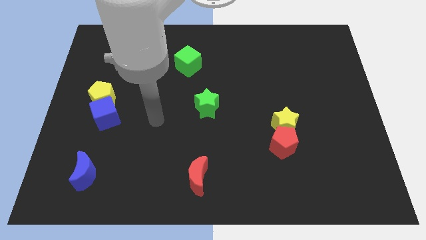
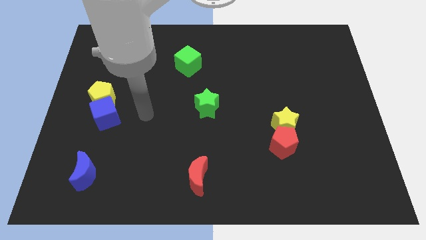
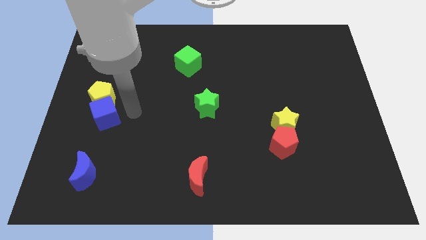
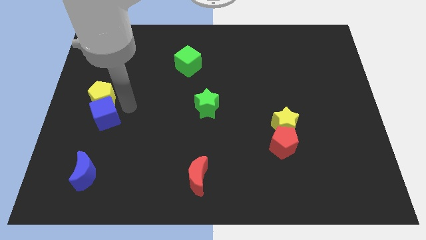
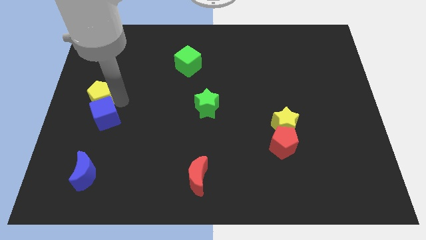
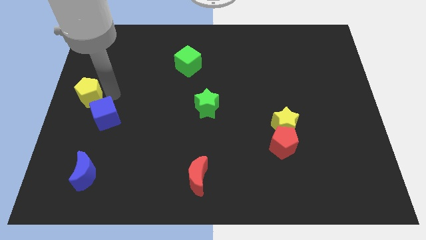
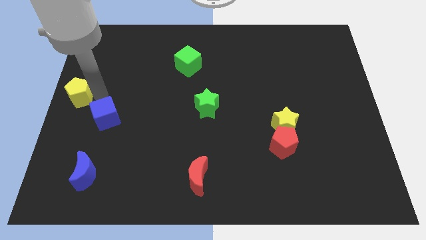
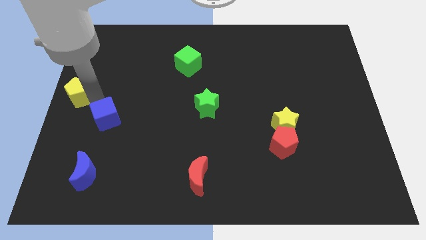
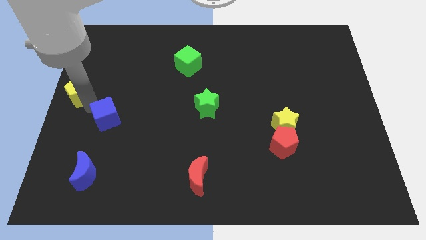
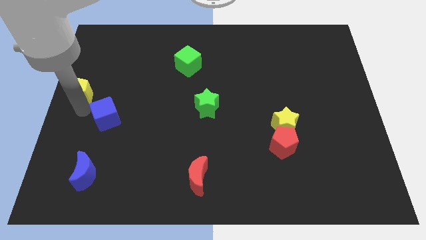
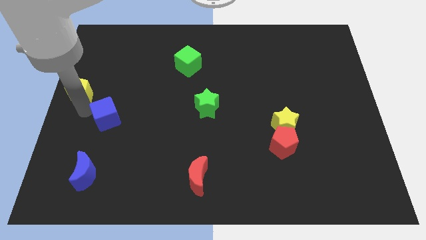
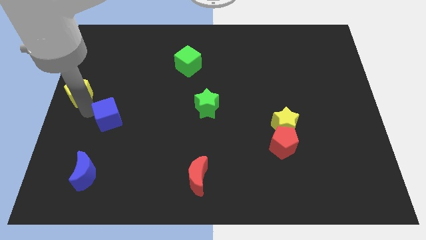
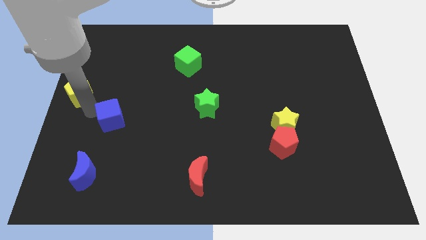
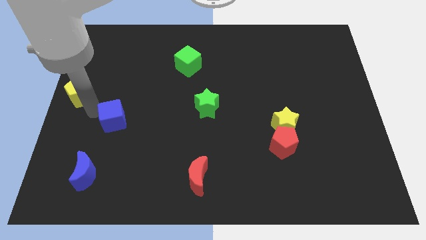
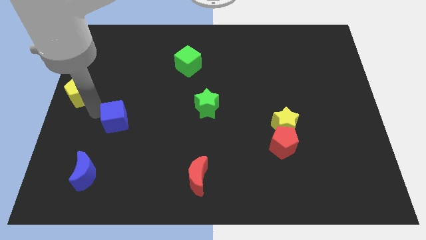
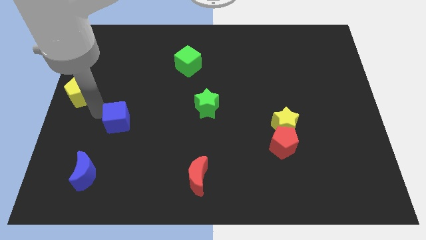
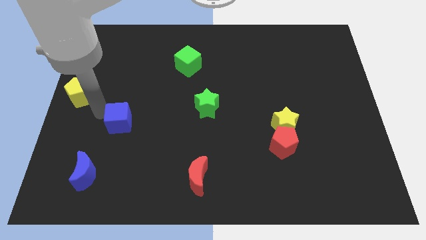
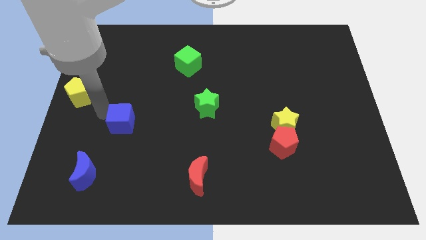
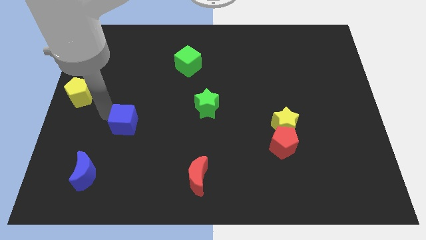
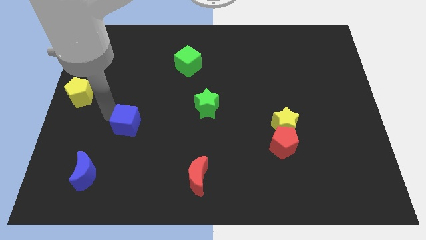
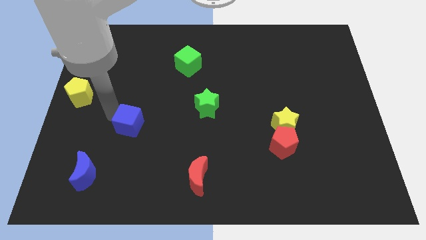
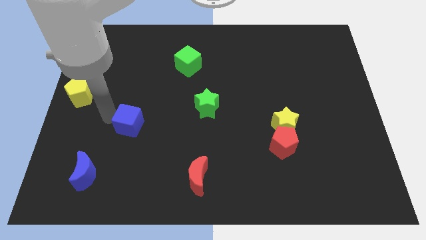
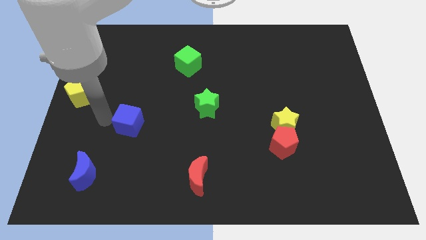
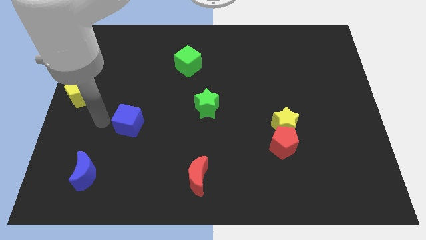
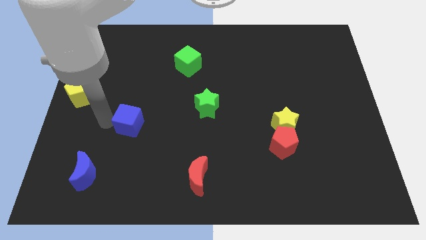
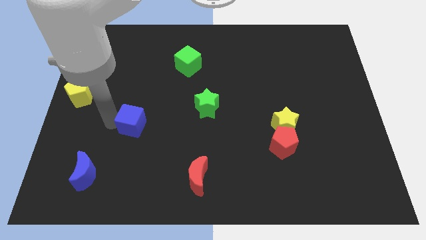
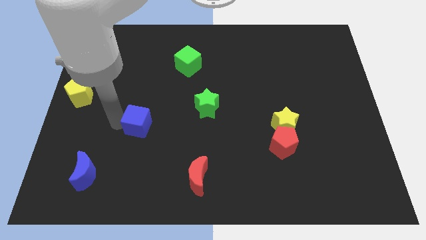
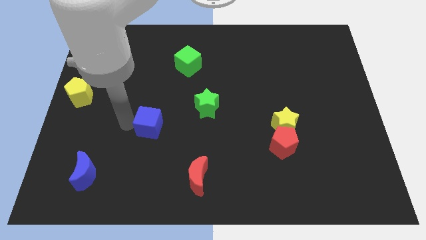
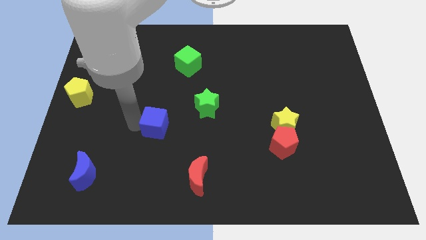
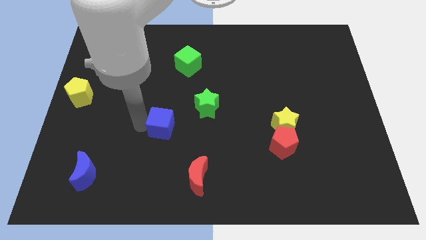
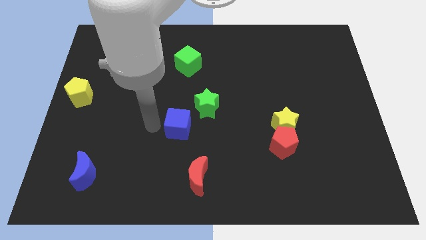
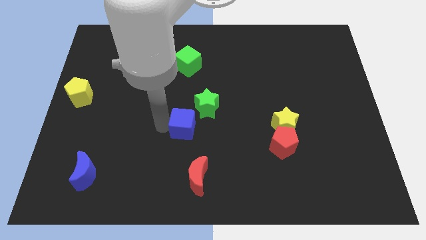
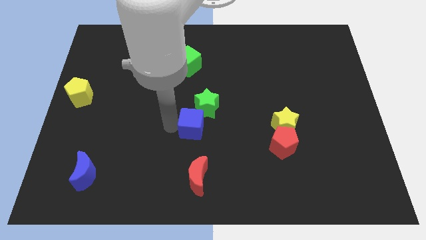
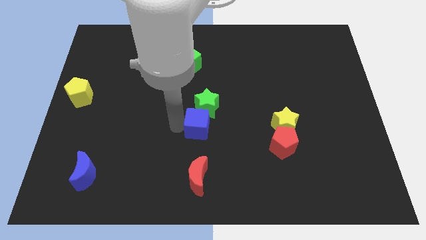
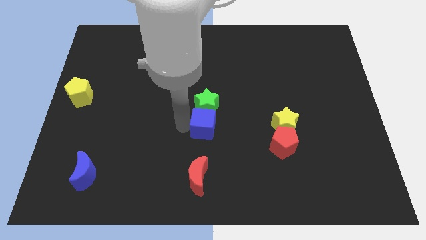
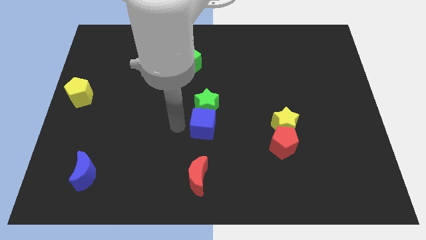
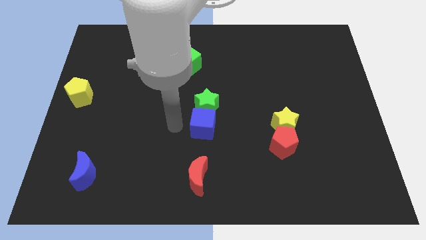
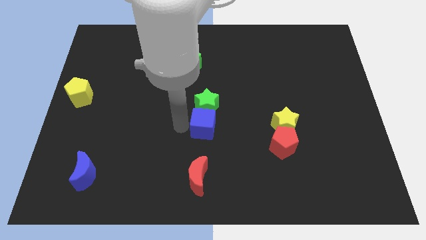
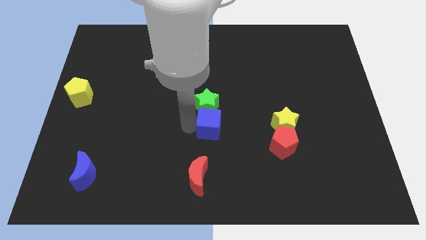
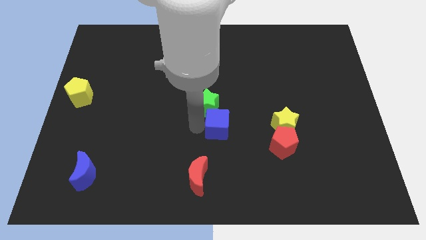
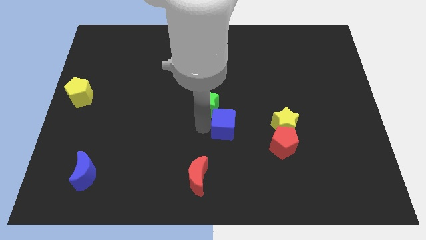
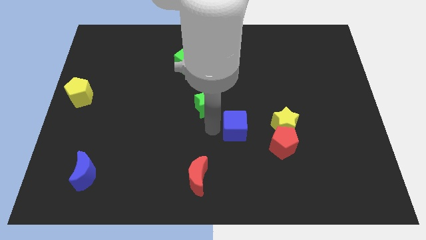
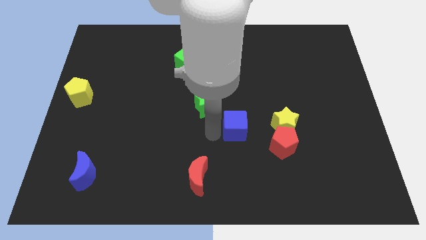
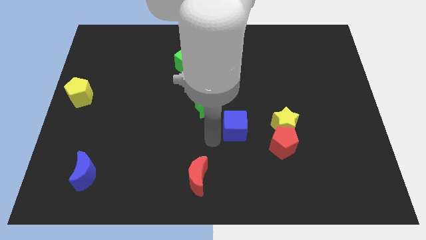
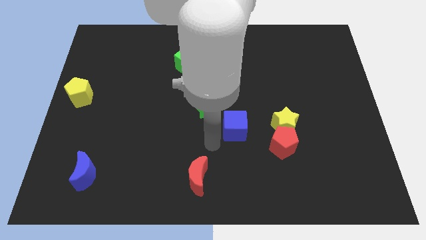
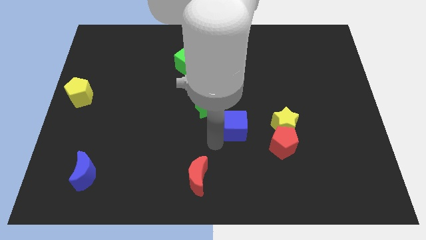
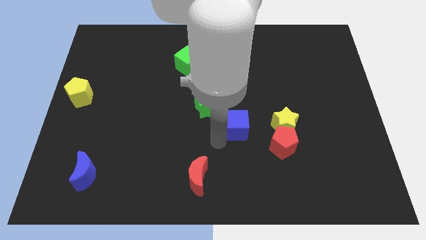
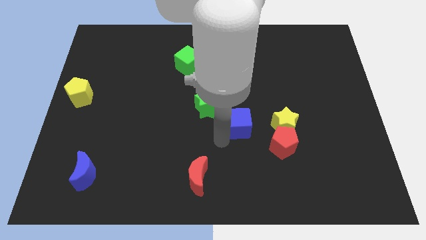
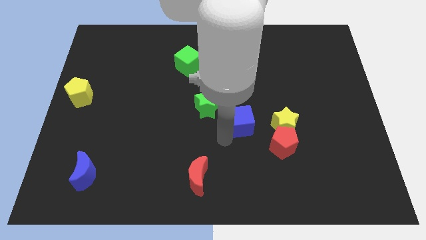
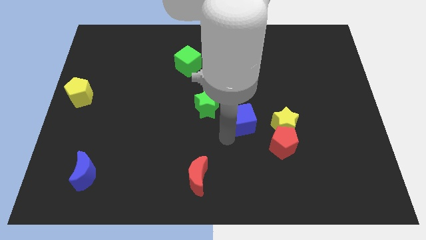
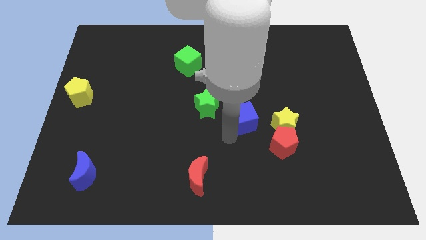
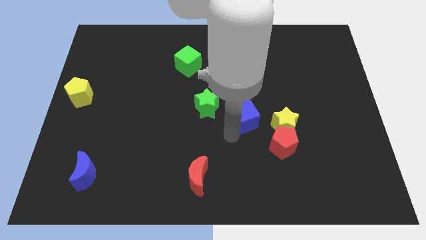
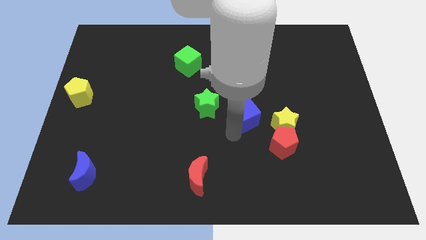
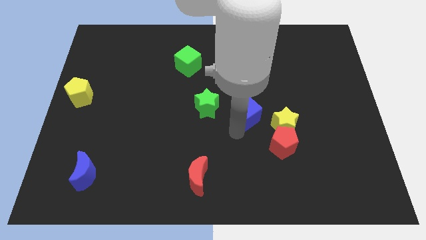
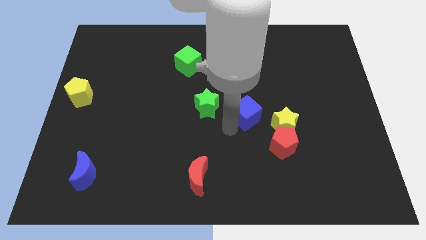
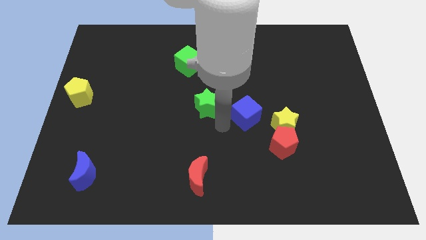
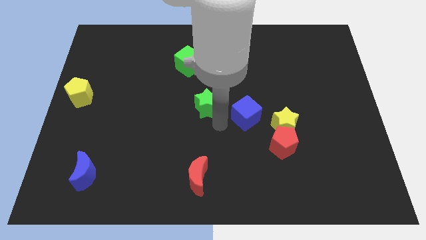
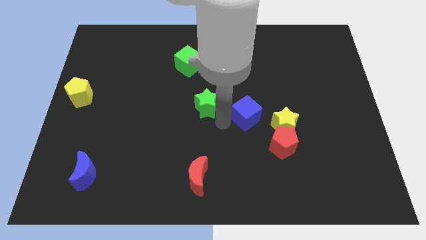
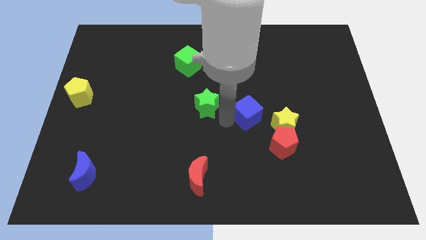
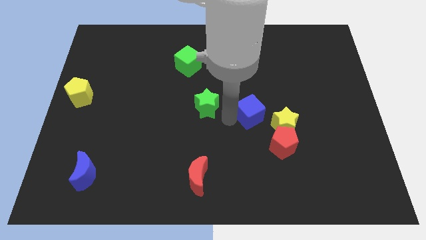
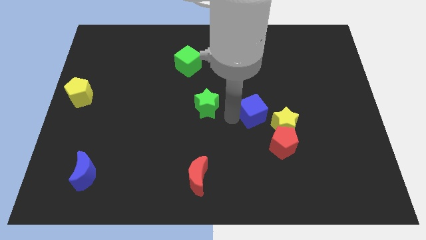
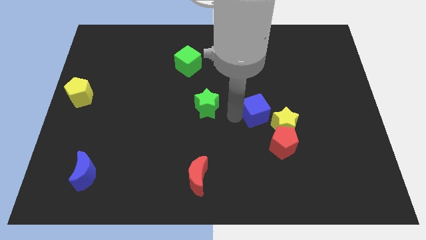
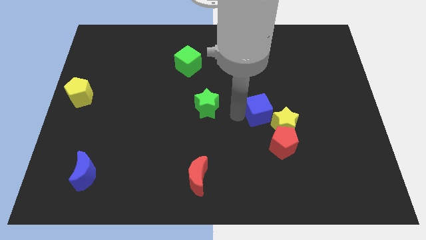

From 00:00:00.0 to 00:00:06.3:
push the blue cube to the top side of the red pentagon

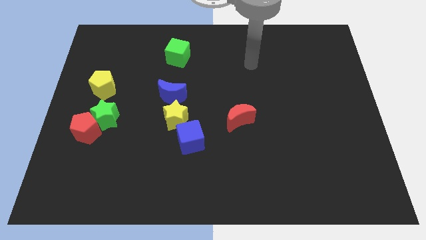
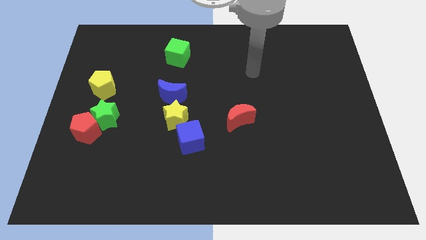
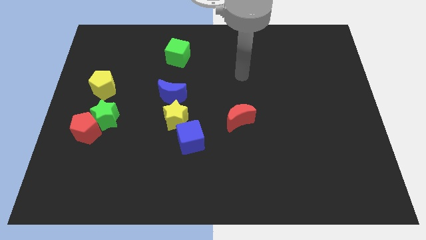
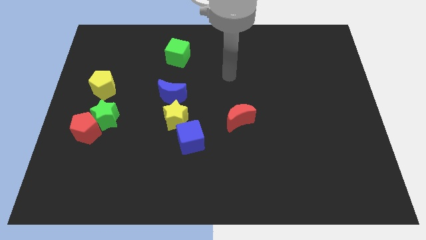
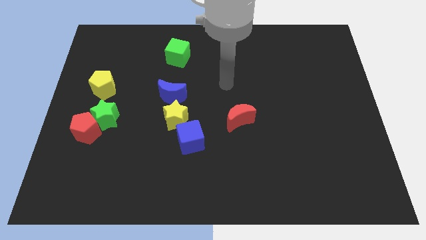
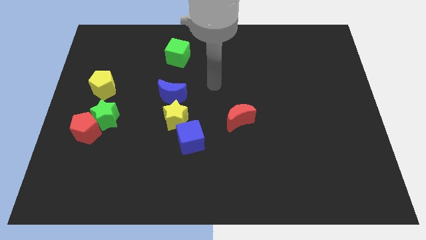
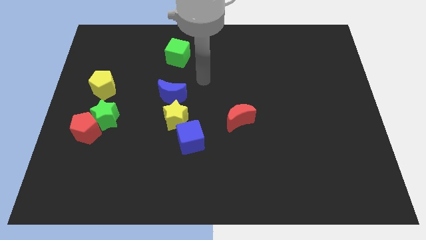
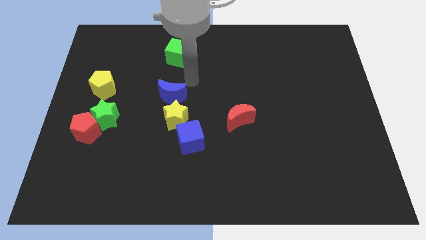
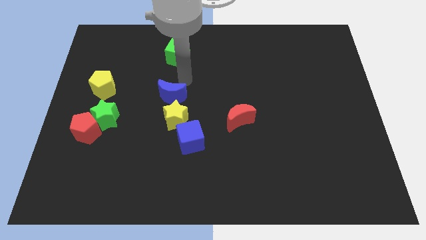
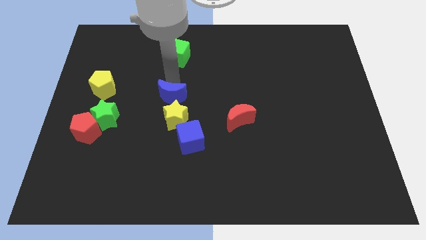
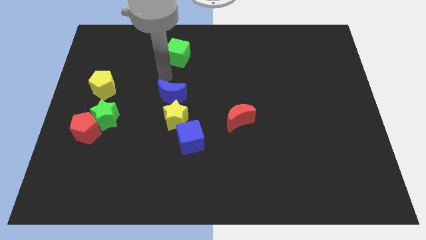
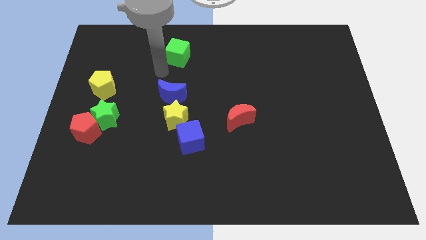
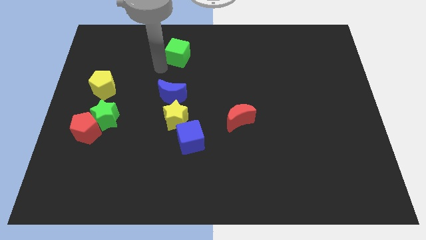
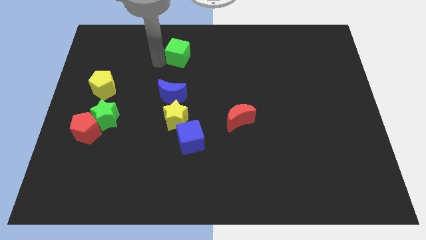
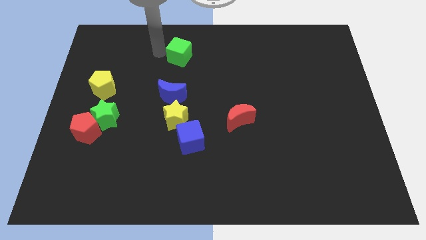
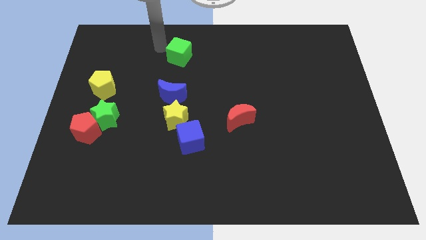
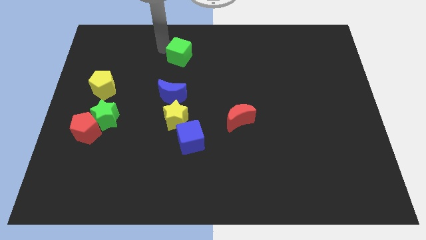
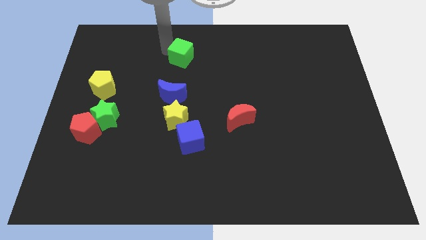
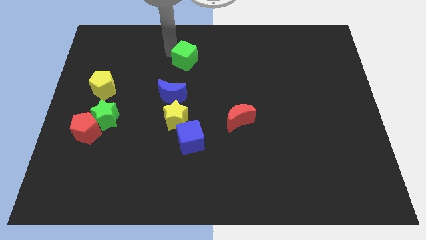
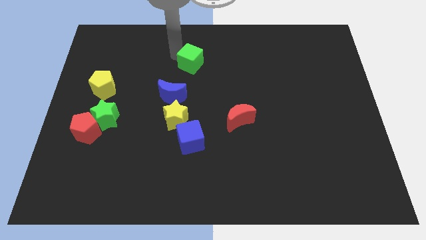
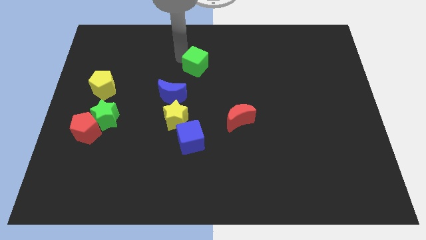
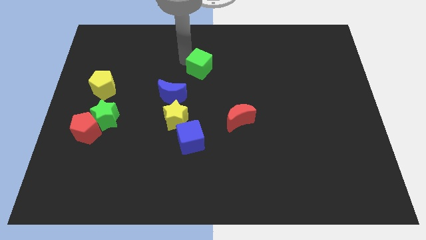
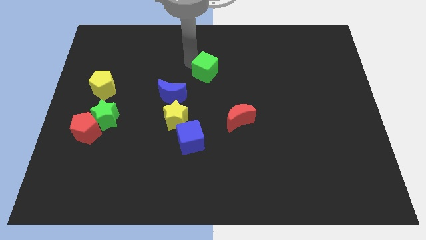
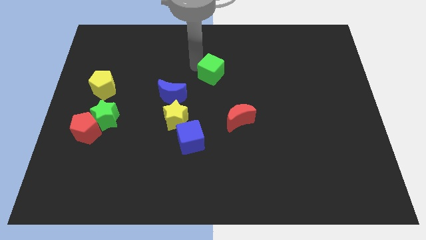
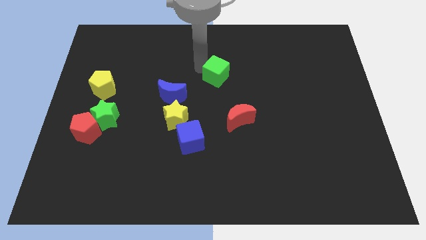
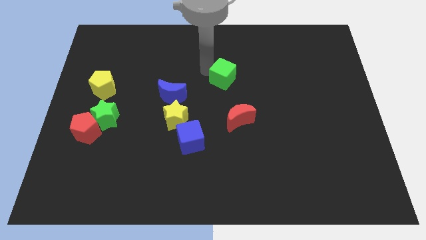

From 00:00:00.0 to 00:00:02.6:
slide the green cube above the red moon
